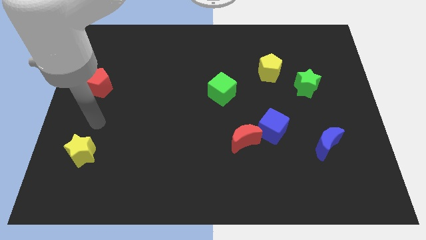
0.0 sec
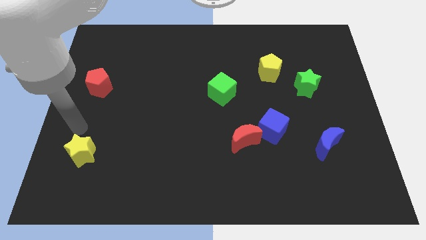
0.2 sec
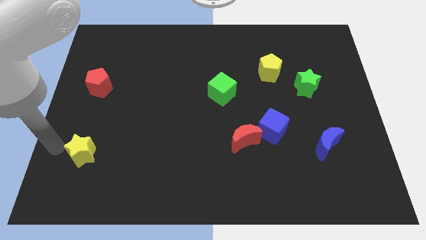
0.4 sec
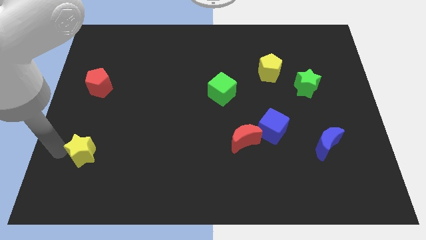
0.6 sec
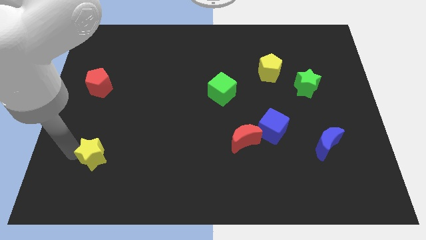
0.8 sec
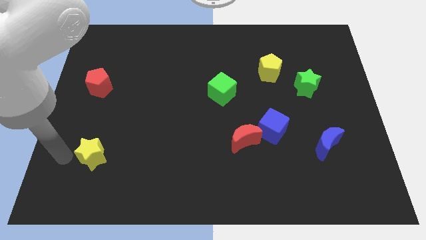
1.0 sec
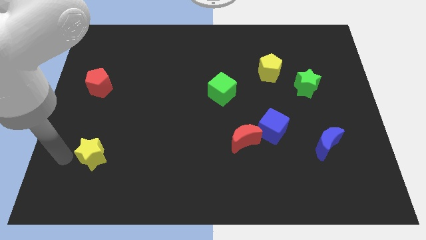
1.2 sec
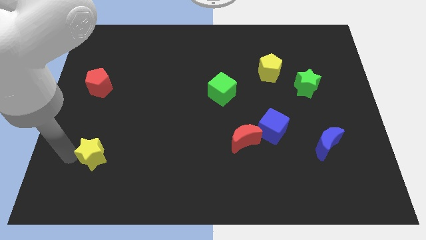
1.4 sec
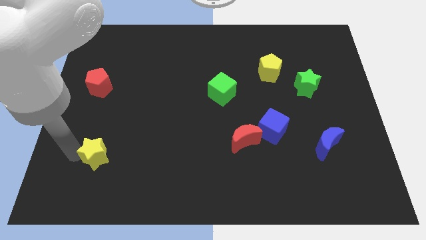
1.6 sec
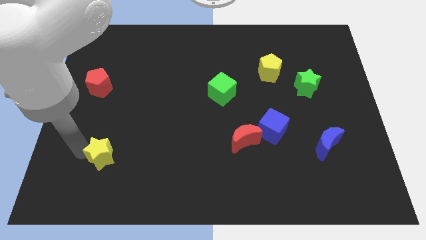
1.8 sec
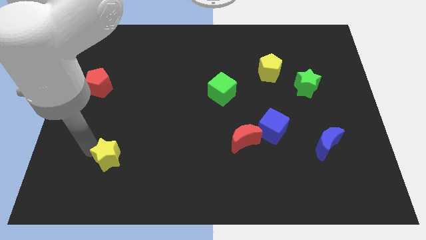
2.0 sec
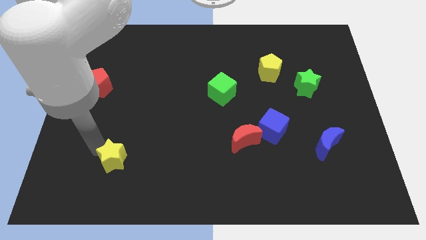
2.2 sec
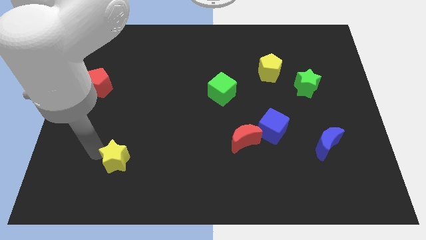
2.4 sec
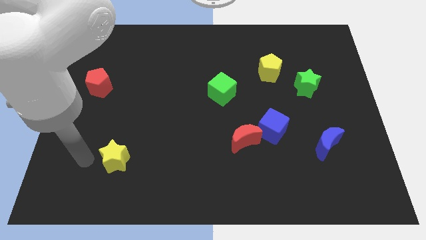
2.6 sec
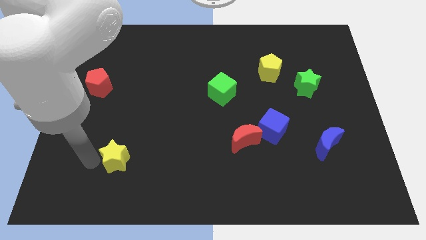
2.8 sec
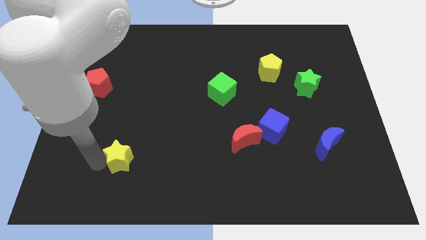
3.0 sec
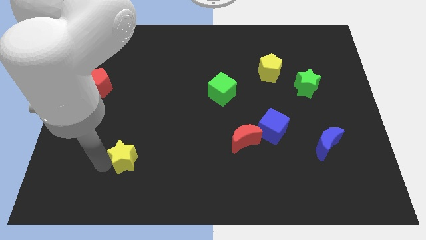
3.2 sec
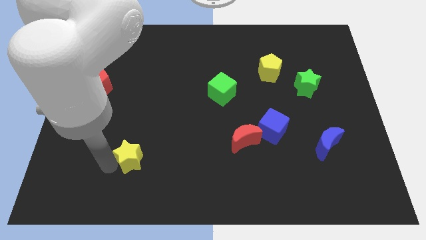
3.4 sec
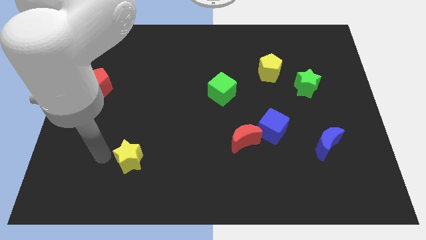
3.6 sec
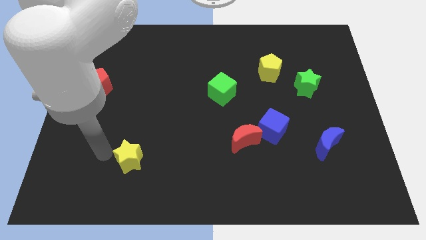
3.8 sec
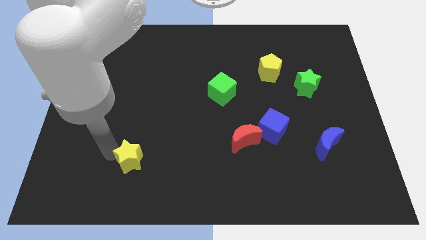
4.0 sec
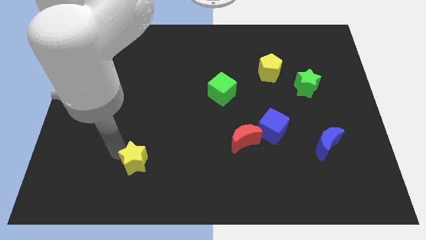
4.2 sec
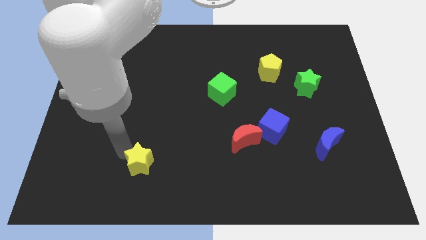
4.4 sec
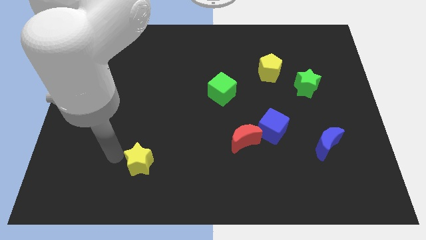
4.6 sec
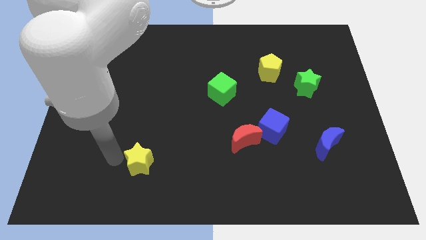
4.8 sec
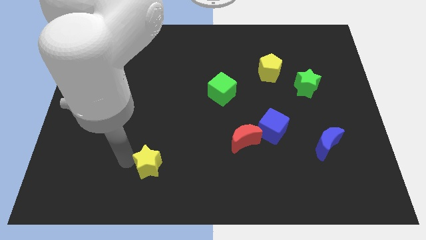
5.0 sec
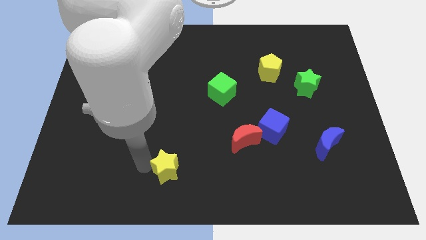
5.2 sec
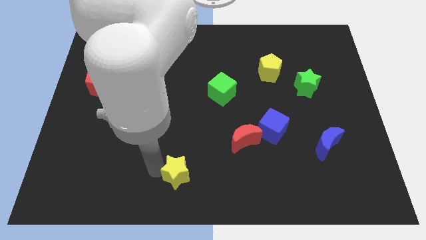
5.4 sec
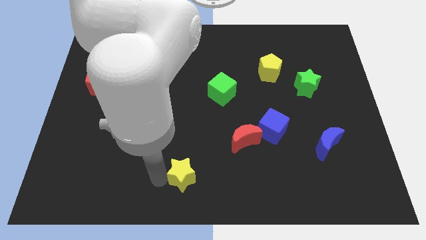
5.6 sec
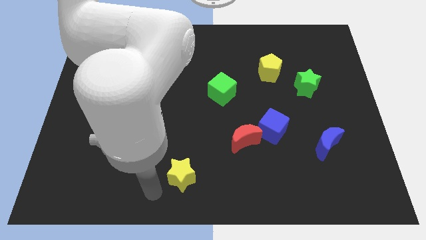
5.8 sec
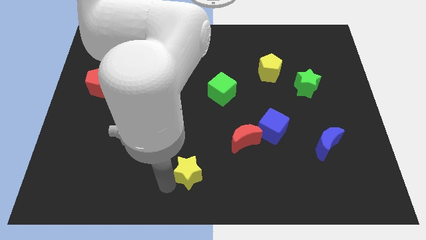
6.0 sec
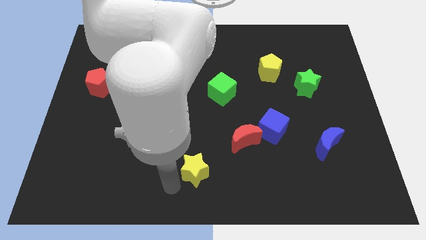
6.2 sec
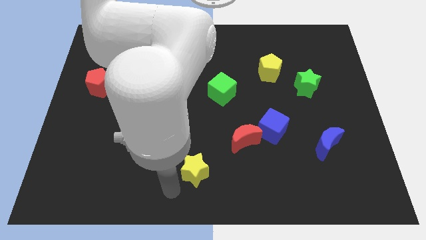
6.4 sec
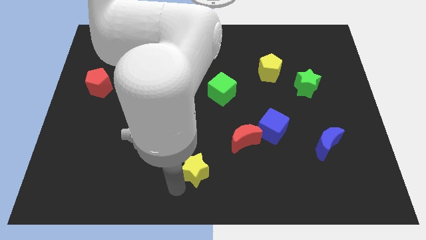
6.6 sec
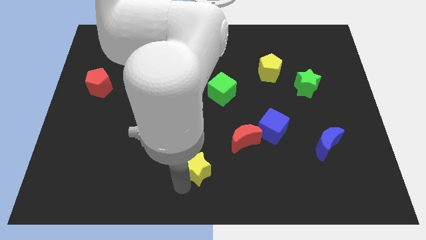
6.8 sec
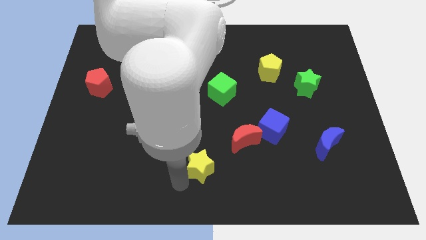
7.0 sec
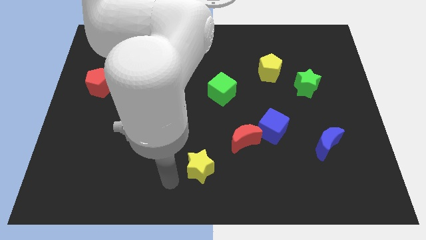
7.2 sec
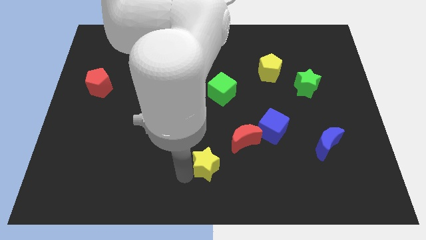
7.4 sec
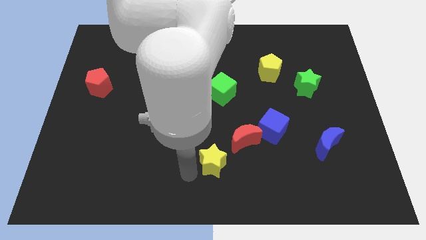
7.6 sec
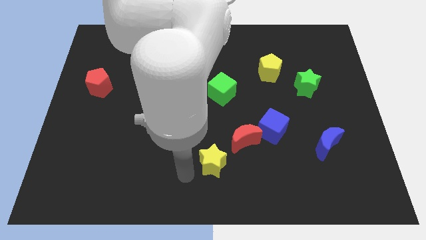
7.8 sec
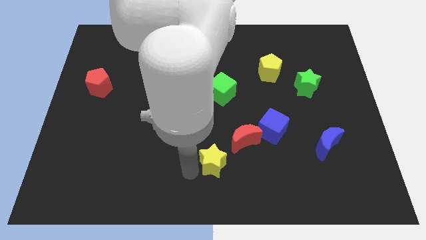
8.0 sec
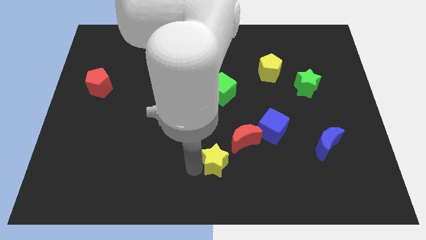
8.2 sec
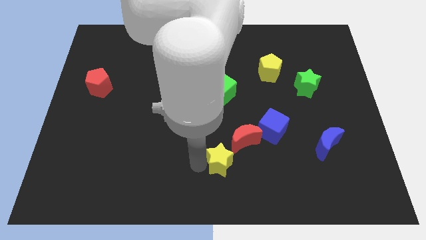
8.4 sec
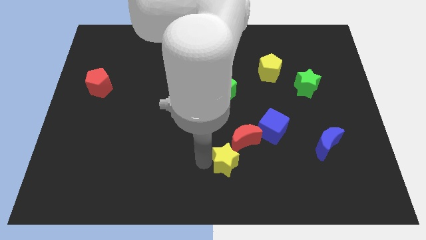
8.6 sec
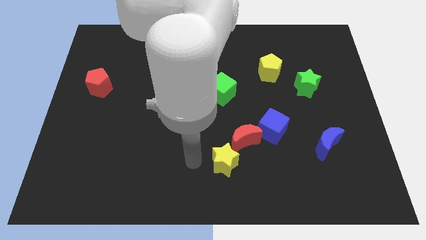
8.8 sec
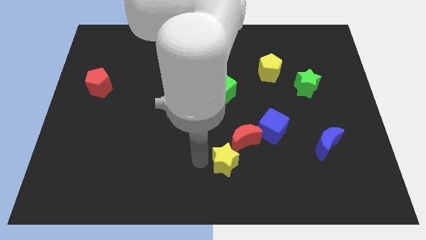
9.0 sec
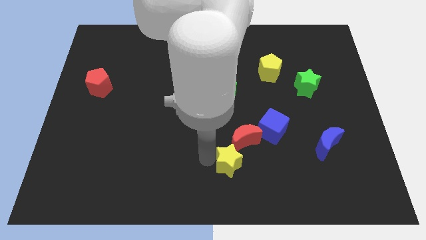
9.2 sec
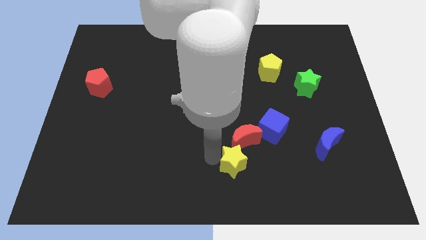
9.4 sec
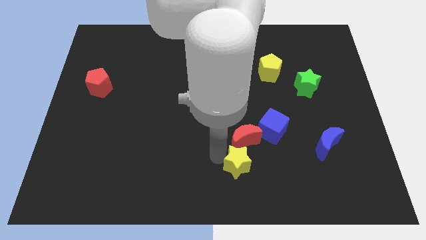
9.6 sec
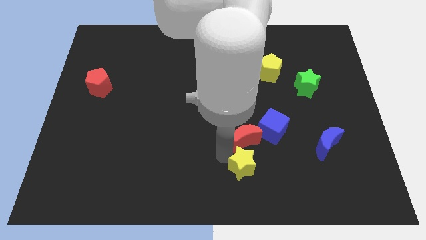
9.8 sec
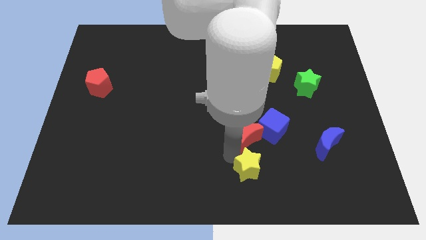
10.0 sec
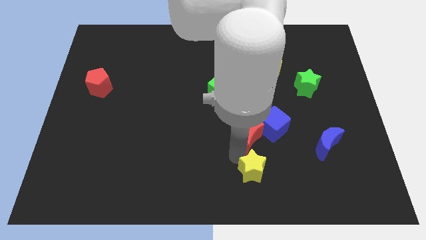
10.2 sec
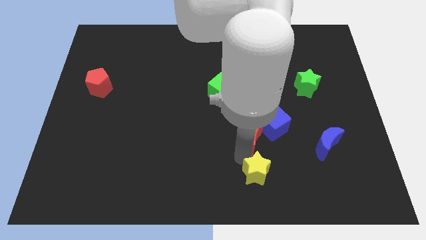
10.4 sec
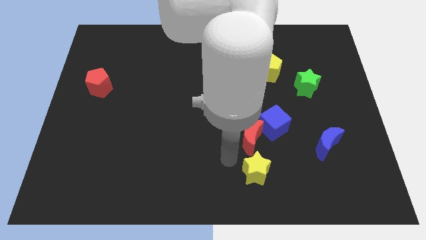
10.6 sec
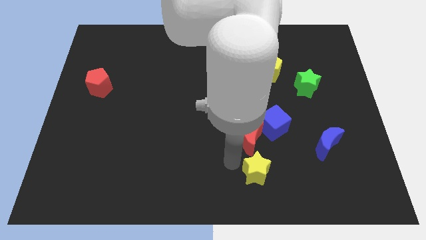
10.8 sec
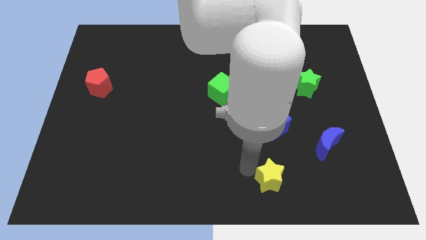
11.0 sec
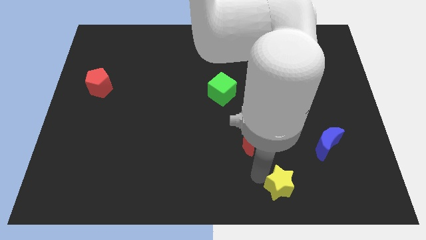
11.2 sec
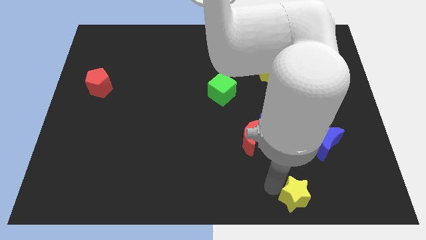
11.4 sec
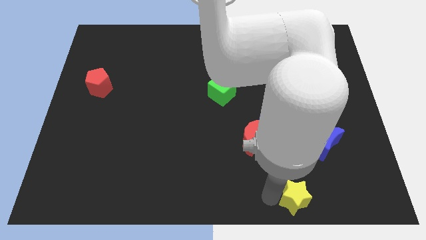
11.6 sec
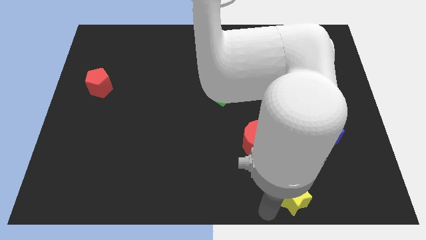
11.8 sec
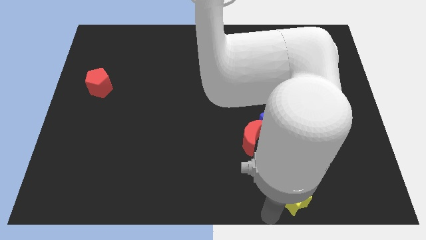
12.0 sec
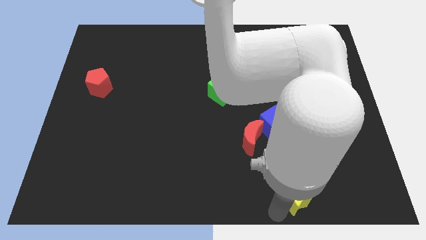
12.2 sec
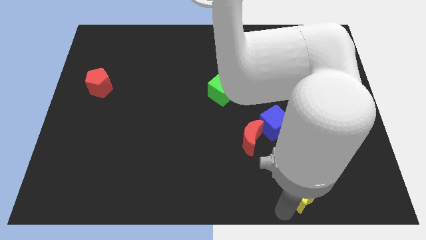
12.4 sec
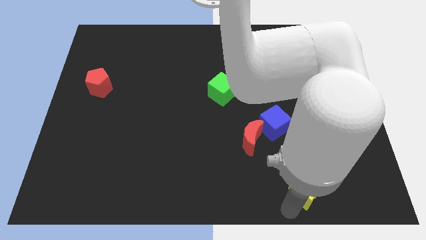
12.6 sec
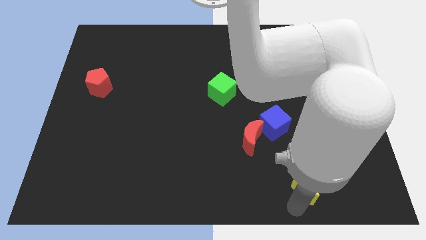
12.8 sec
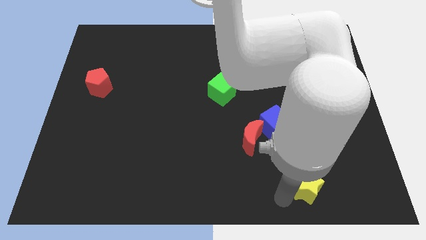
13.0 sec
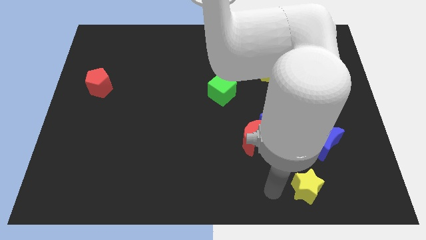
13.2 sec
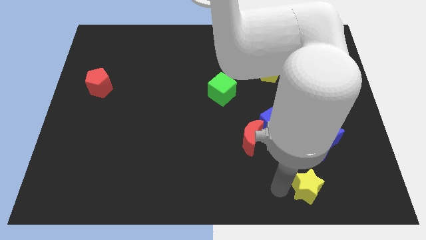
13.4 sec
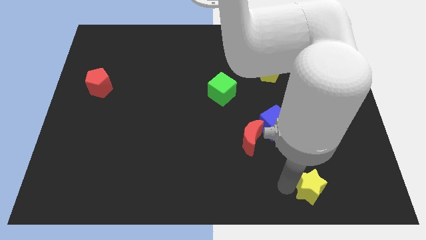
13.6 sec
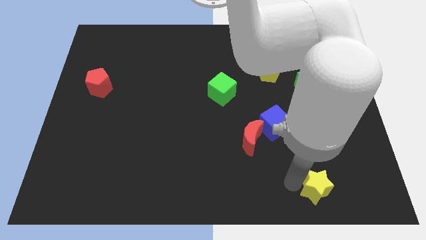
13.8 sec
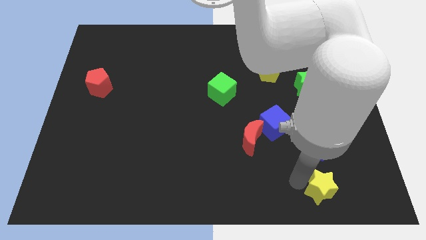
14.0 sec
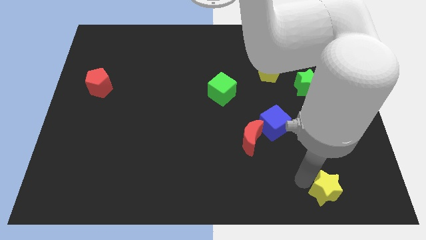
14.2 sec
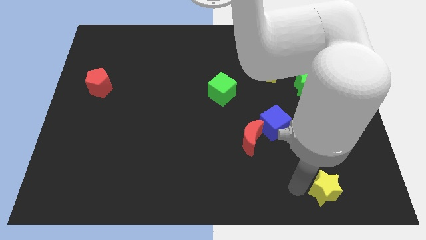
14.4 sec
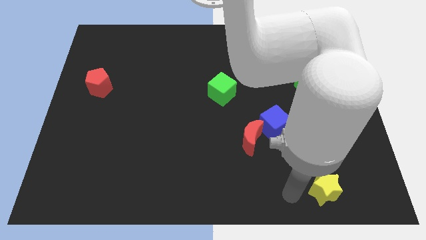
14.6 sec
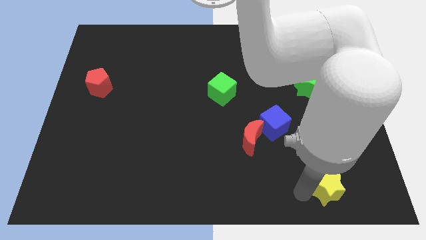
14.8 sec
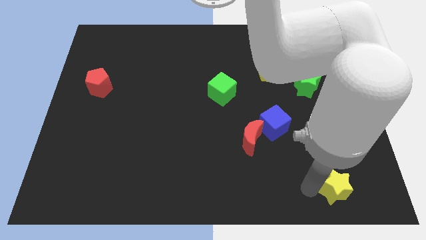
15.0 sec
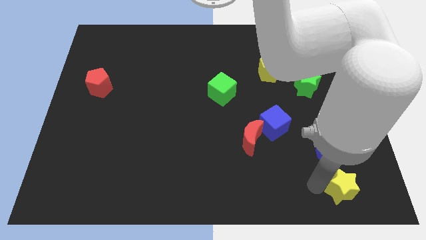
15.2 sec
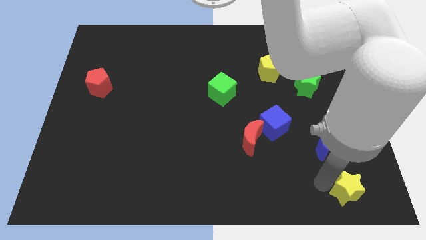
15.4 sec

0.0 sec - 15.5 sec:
slide the yellow star to the bottom right corner
